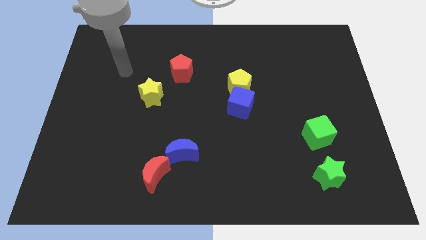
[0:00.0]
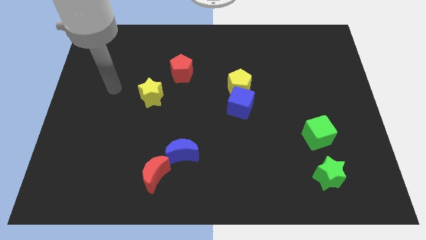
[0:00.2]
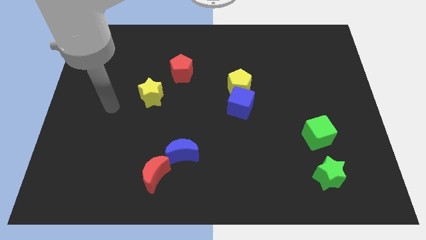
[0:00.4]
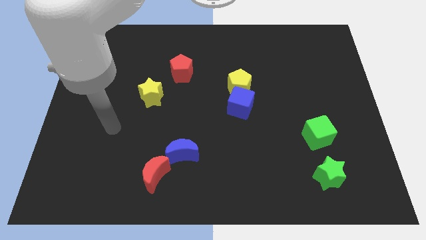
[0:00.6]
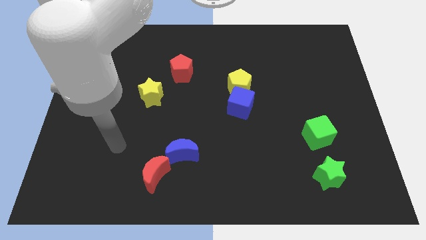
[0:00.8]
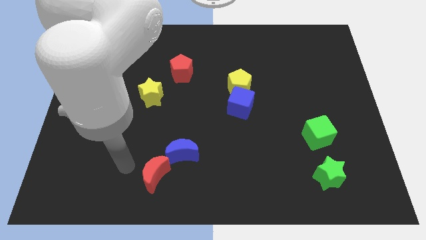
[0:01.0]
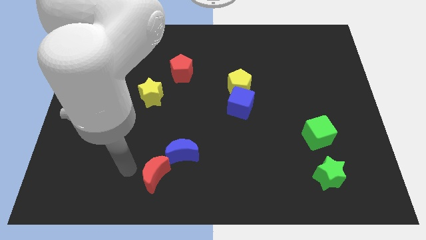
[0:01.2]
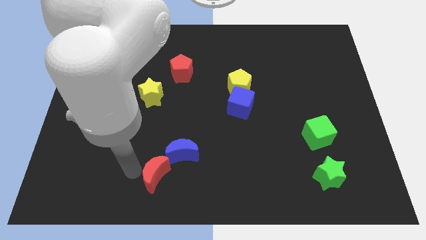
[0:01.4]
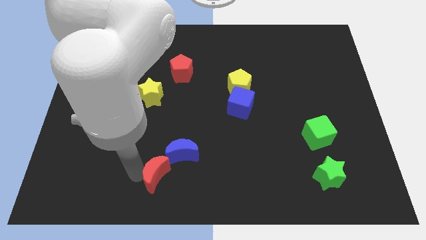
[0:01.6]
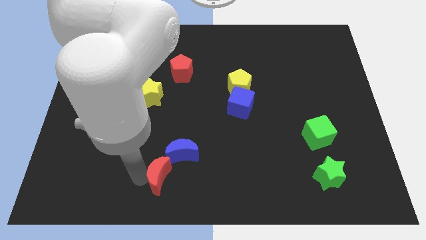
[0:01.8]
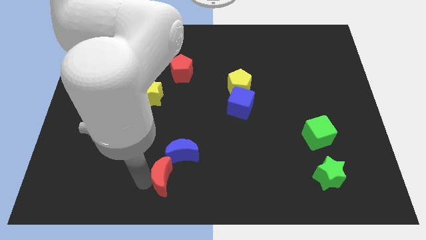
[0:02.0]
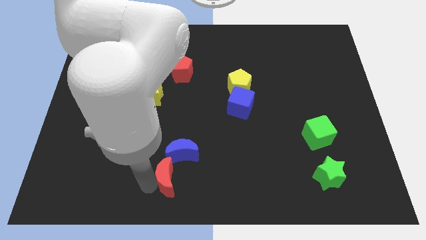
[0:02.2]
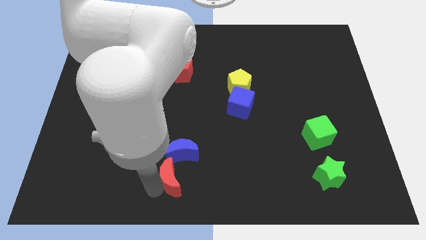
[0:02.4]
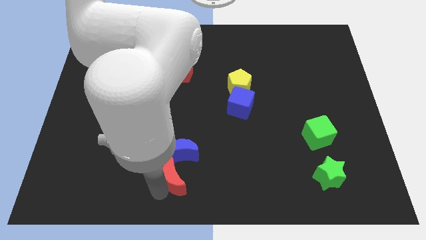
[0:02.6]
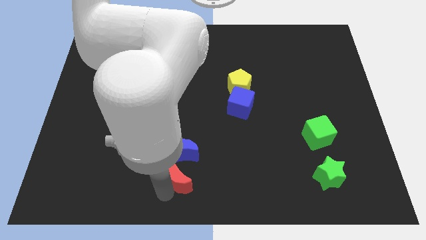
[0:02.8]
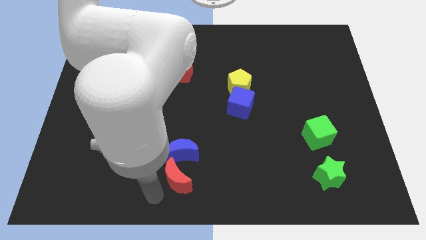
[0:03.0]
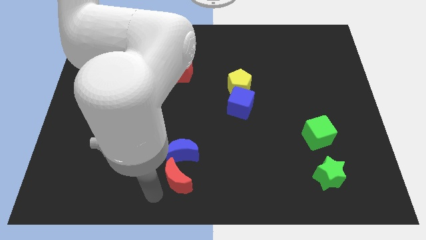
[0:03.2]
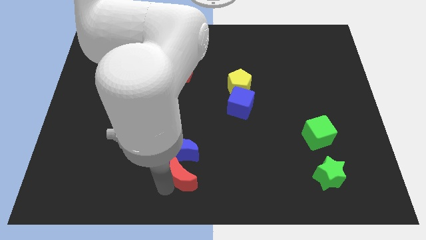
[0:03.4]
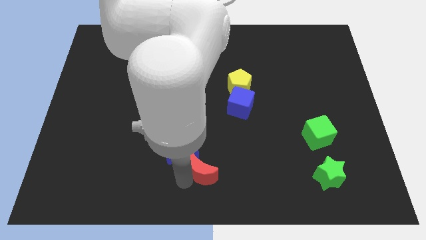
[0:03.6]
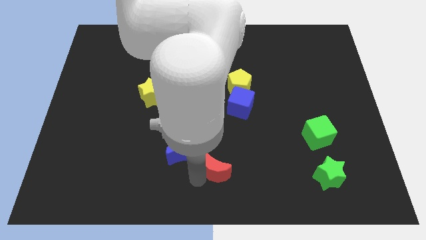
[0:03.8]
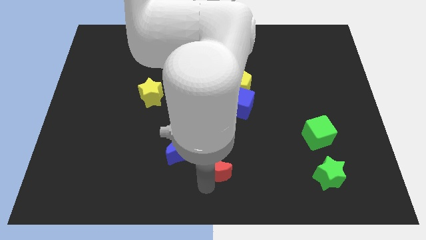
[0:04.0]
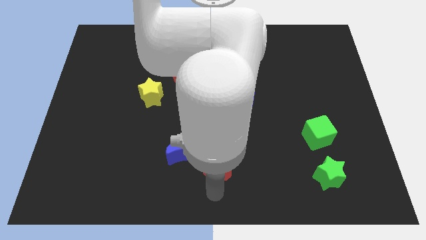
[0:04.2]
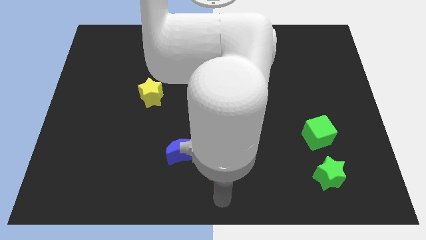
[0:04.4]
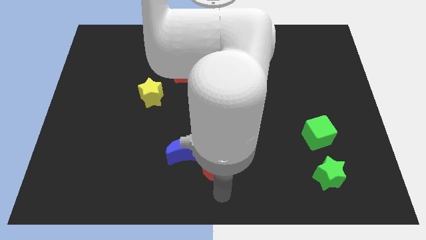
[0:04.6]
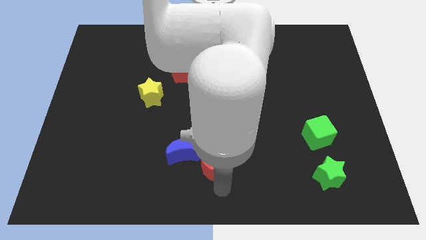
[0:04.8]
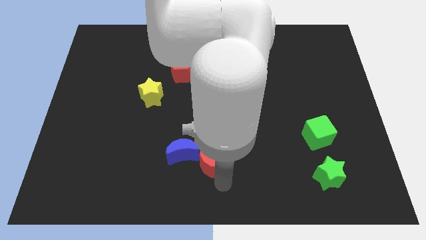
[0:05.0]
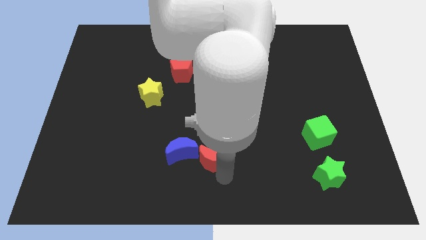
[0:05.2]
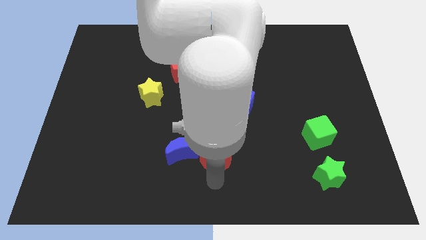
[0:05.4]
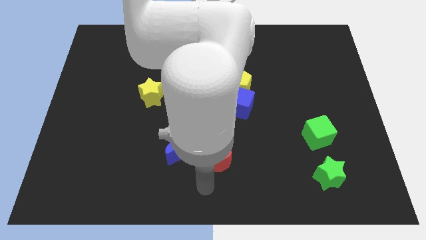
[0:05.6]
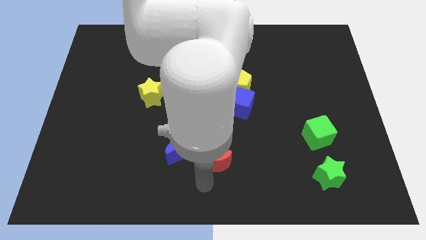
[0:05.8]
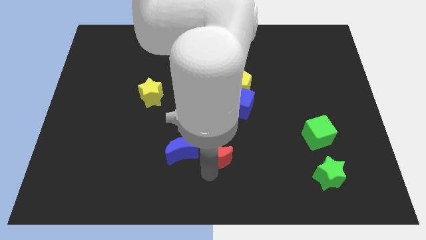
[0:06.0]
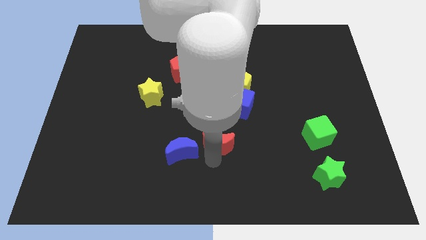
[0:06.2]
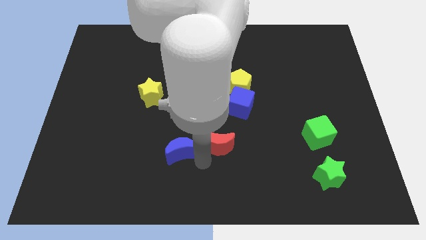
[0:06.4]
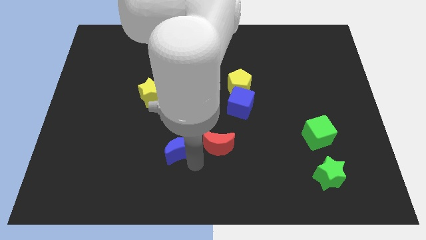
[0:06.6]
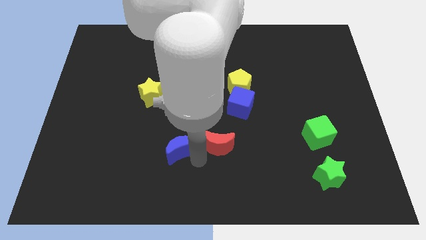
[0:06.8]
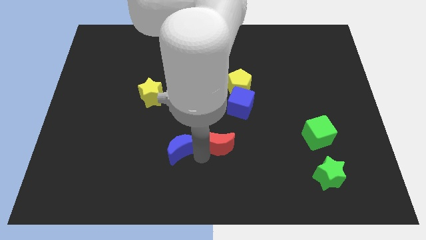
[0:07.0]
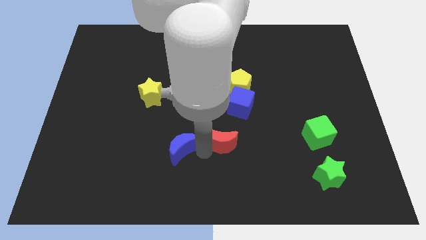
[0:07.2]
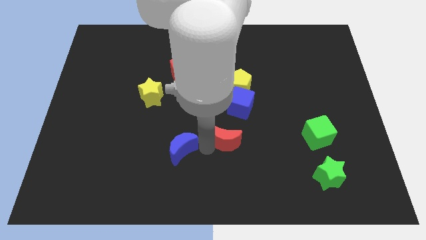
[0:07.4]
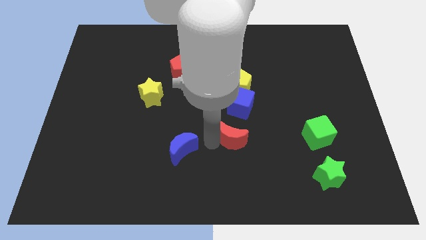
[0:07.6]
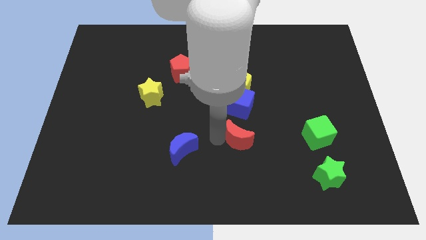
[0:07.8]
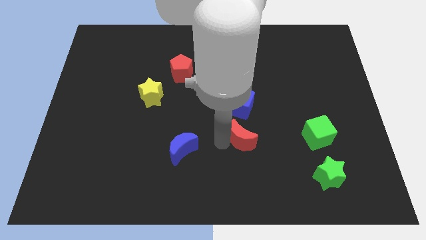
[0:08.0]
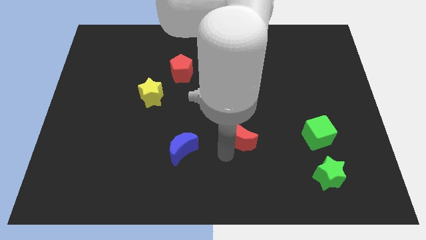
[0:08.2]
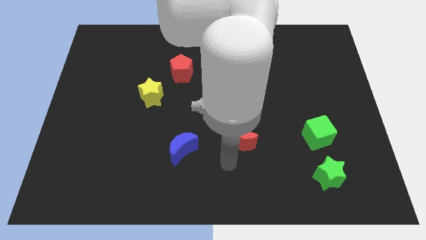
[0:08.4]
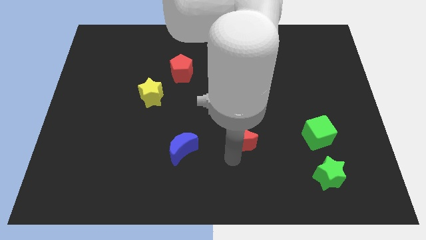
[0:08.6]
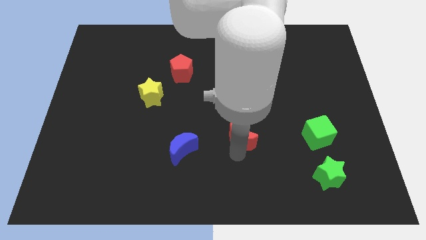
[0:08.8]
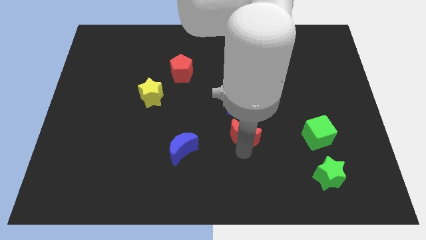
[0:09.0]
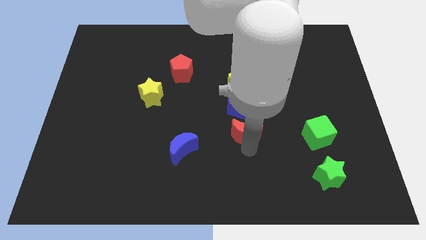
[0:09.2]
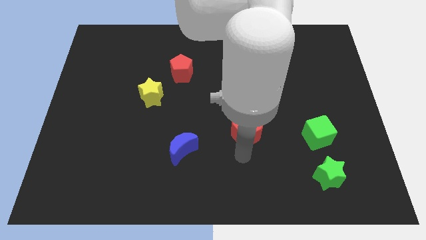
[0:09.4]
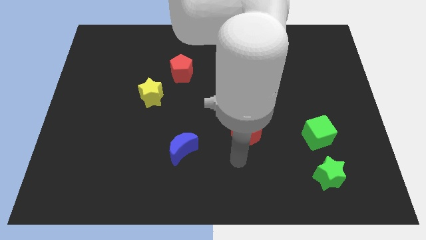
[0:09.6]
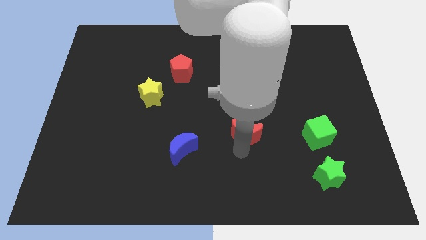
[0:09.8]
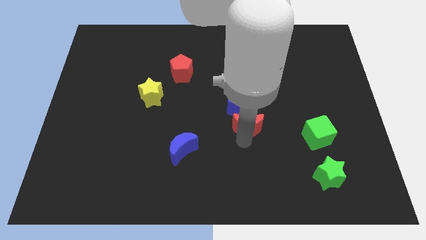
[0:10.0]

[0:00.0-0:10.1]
slide the red moon upwards and right

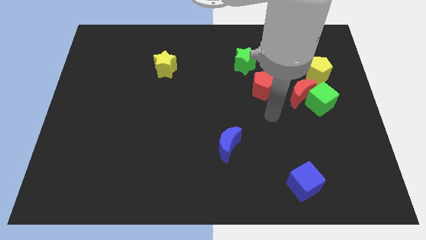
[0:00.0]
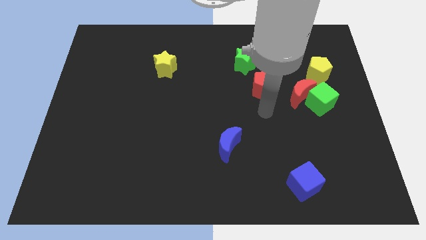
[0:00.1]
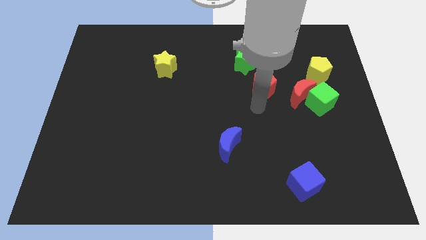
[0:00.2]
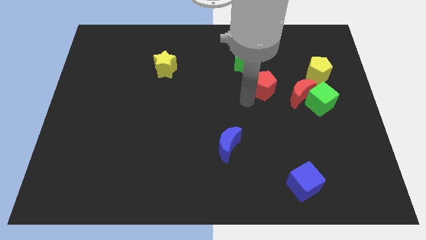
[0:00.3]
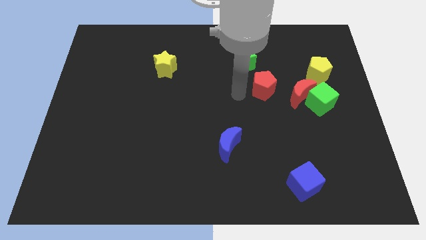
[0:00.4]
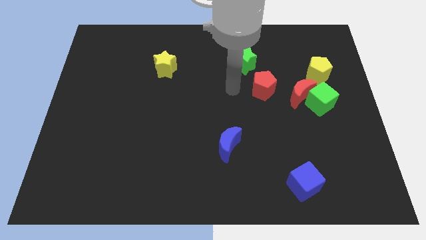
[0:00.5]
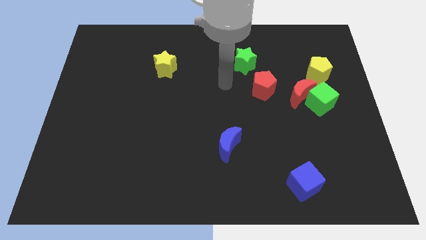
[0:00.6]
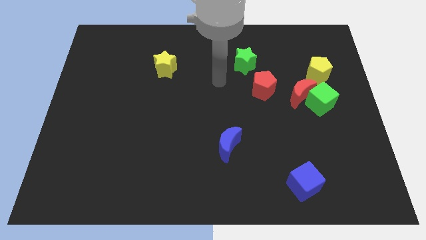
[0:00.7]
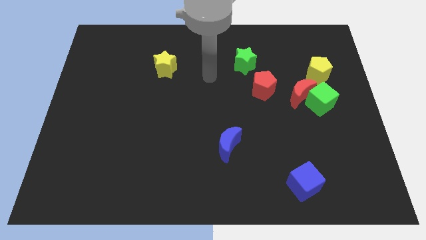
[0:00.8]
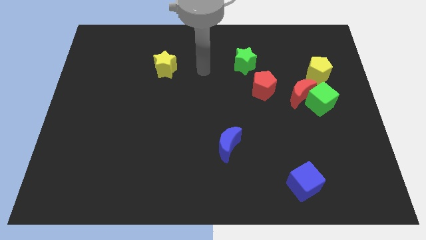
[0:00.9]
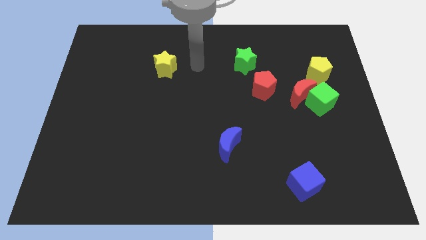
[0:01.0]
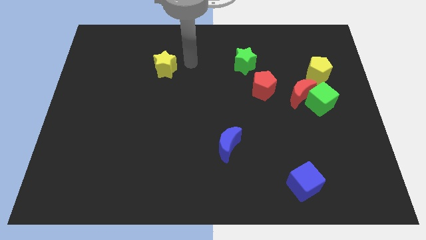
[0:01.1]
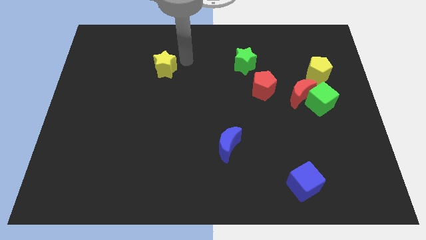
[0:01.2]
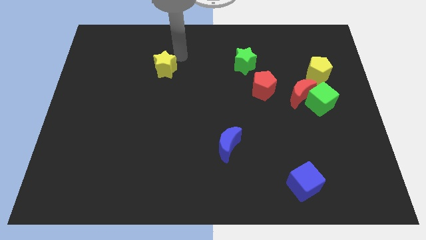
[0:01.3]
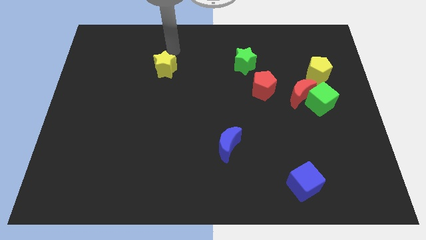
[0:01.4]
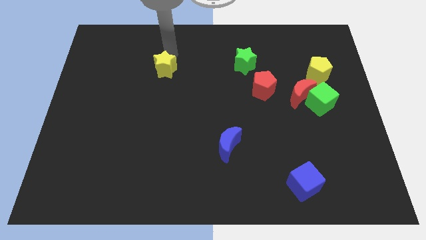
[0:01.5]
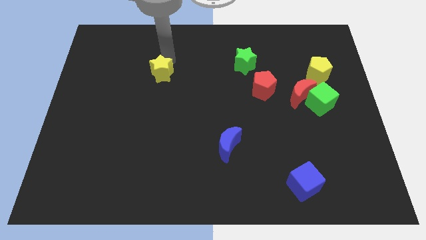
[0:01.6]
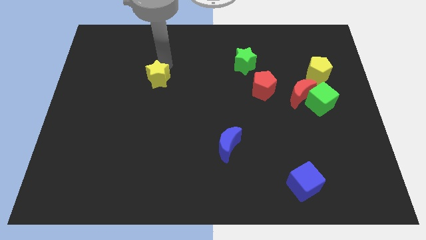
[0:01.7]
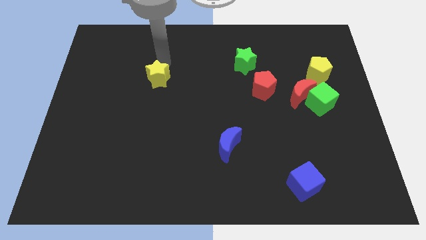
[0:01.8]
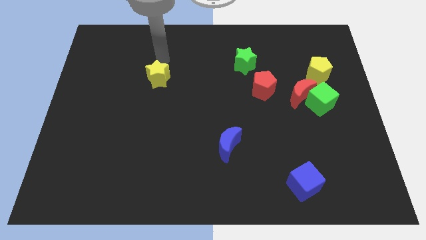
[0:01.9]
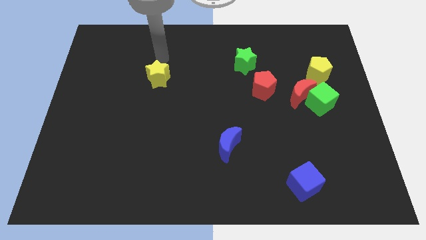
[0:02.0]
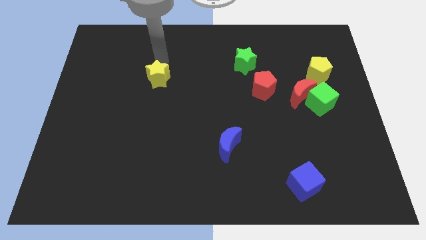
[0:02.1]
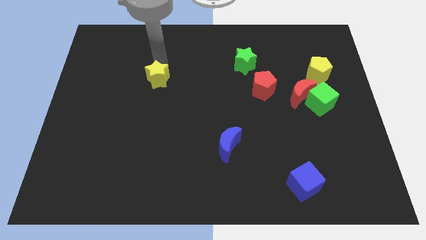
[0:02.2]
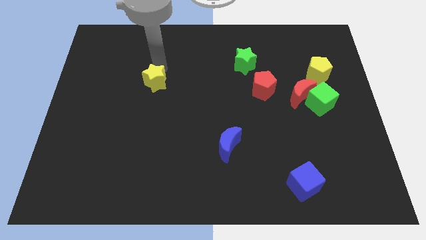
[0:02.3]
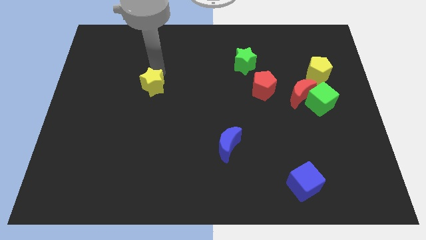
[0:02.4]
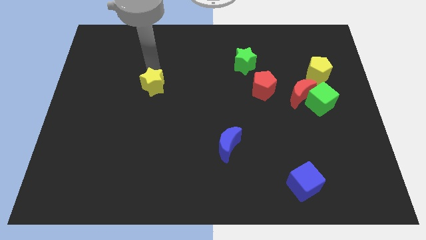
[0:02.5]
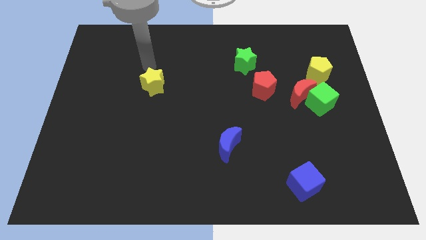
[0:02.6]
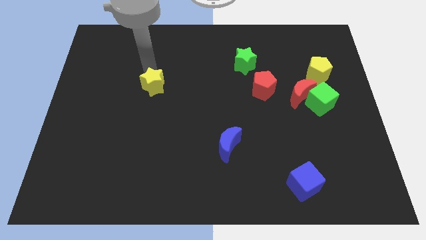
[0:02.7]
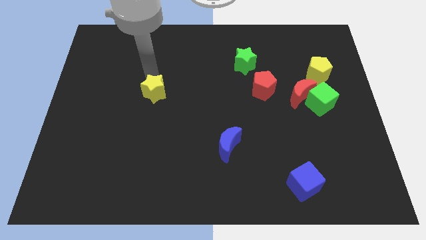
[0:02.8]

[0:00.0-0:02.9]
slightly push the yellow star downwards

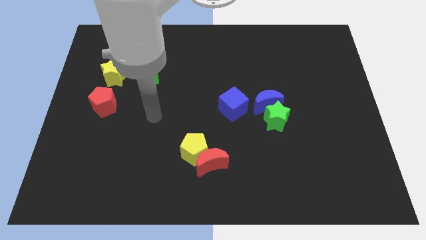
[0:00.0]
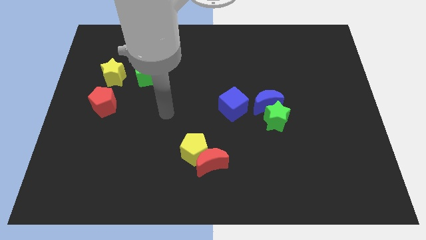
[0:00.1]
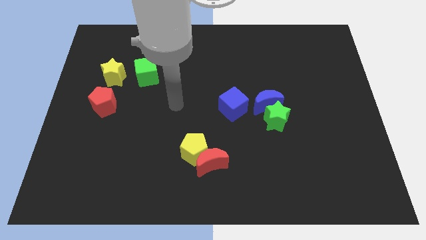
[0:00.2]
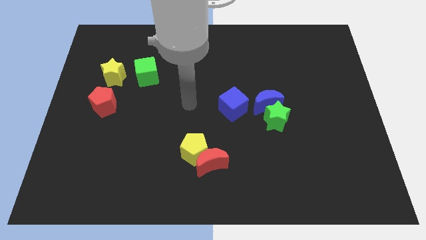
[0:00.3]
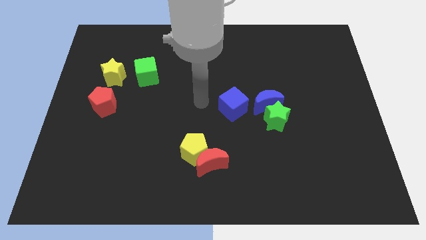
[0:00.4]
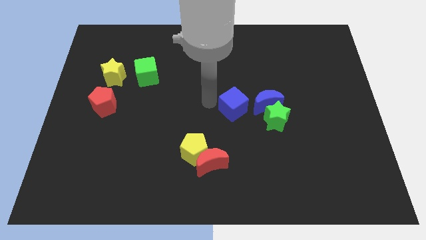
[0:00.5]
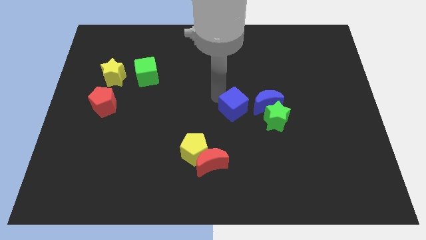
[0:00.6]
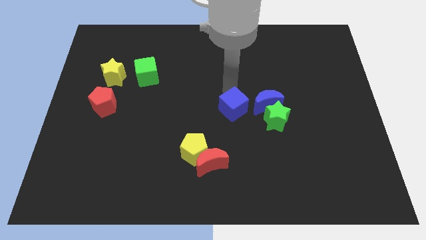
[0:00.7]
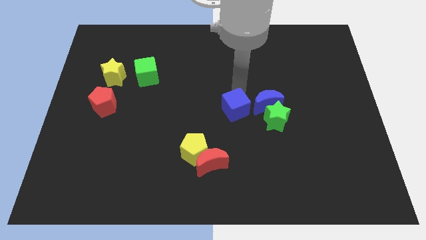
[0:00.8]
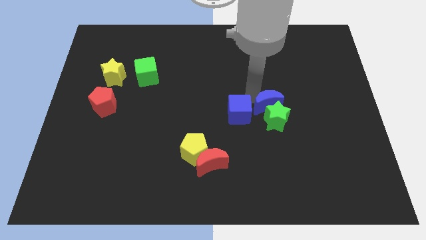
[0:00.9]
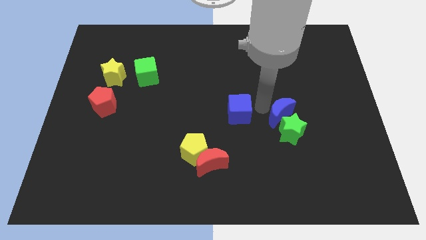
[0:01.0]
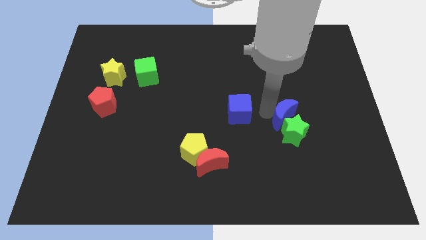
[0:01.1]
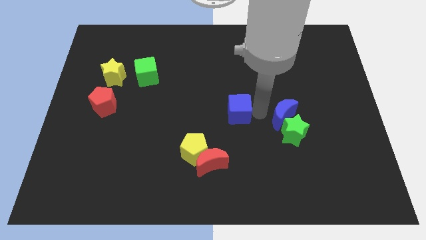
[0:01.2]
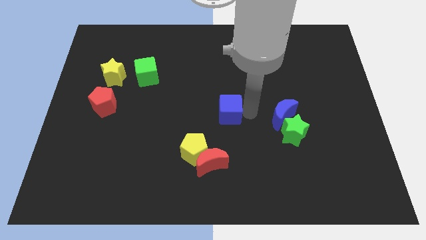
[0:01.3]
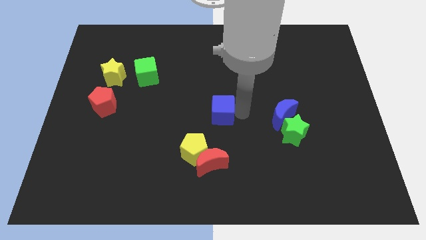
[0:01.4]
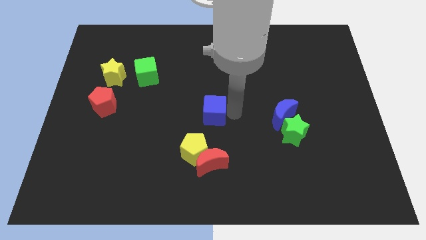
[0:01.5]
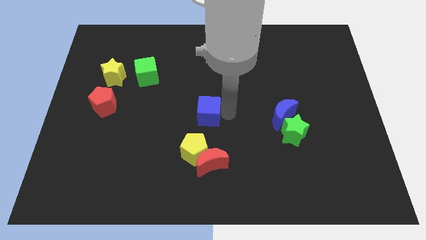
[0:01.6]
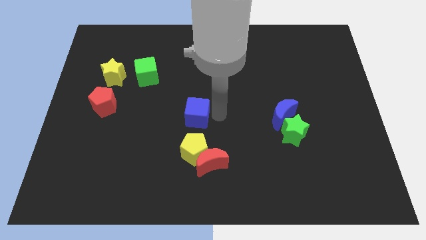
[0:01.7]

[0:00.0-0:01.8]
slightly push the blue cube to the left
